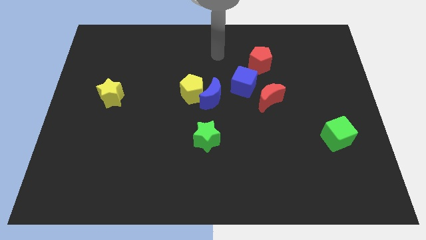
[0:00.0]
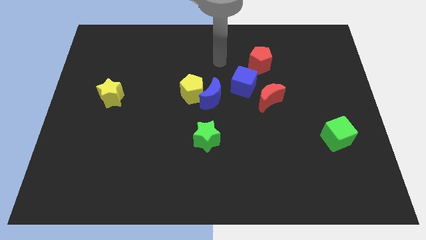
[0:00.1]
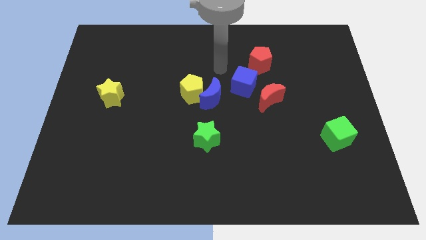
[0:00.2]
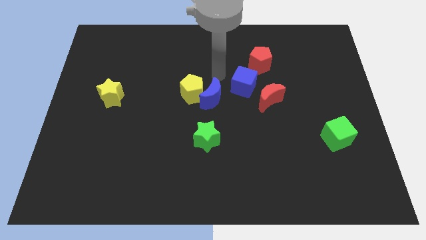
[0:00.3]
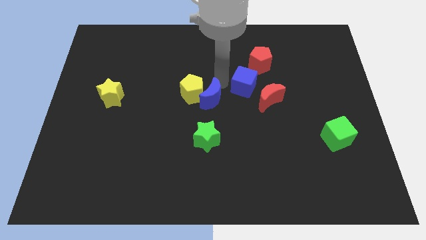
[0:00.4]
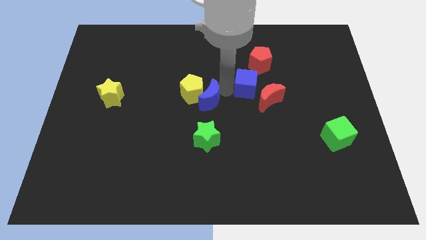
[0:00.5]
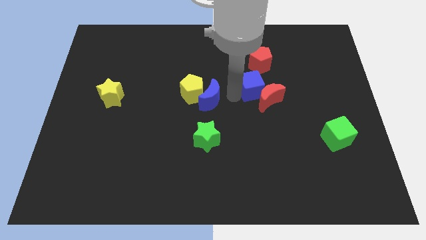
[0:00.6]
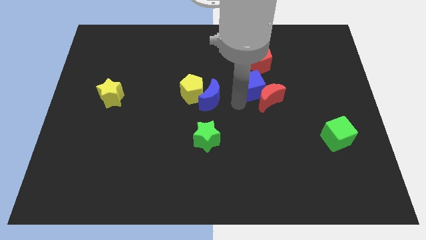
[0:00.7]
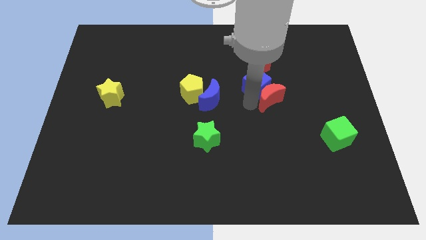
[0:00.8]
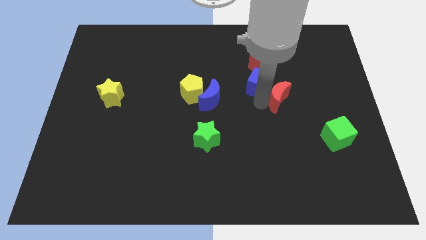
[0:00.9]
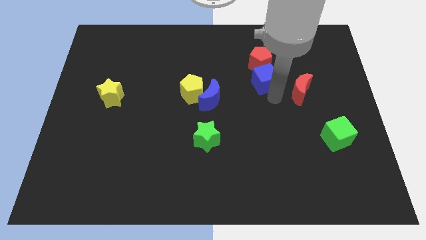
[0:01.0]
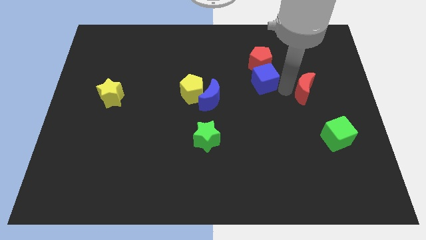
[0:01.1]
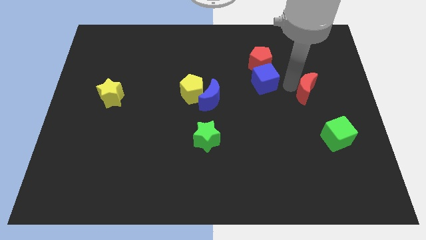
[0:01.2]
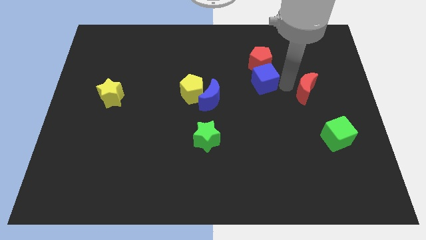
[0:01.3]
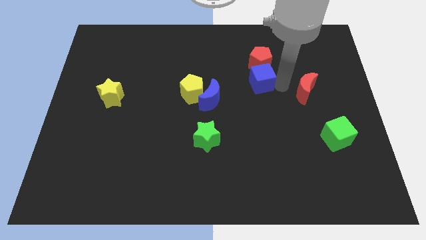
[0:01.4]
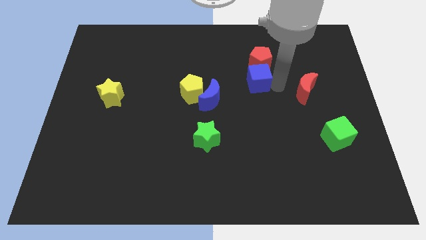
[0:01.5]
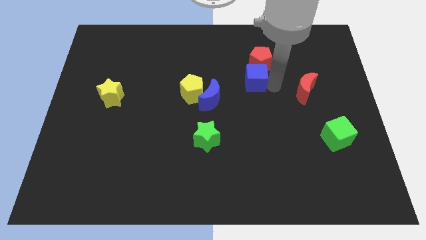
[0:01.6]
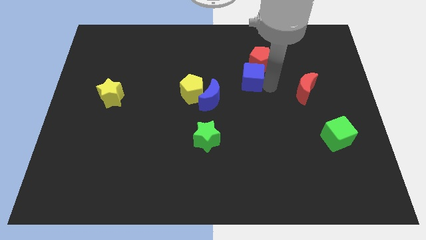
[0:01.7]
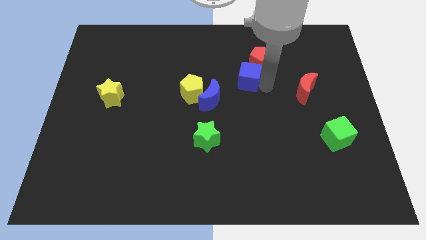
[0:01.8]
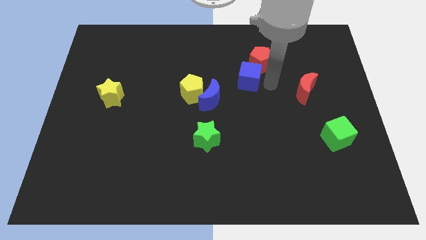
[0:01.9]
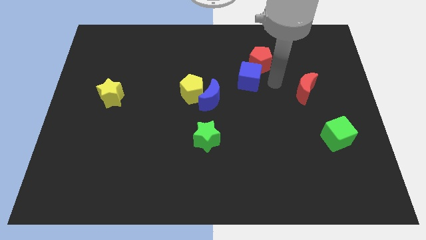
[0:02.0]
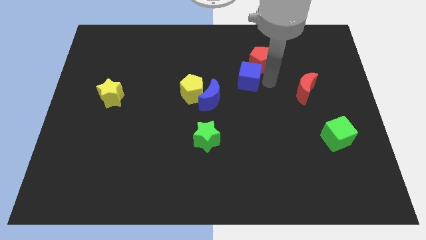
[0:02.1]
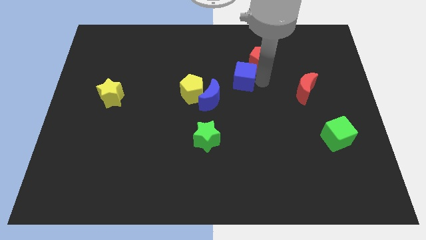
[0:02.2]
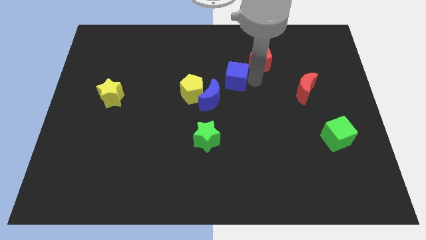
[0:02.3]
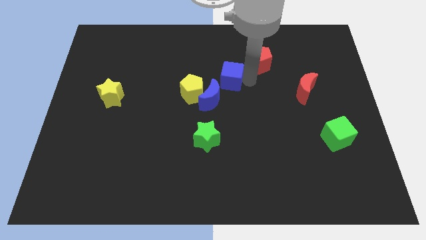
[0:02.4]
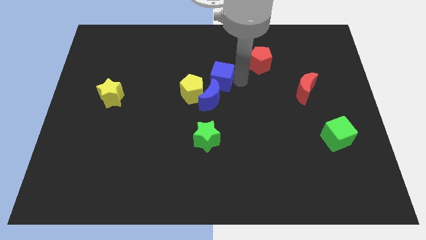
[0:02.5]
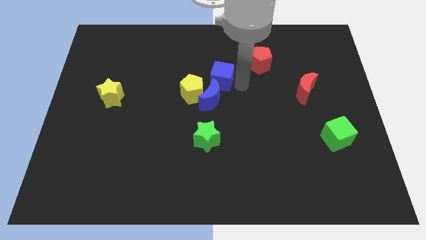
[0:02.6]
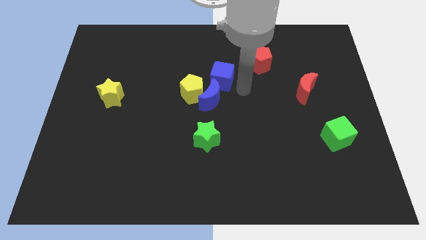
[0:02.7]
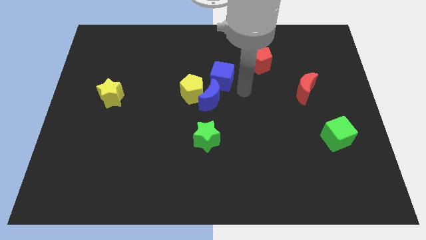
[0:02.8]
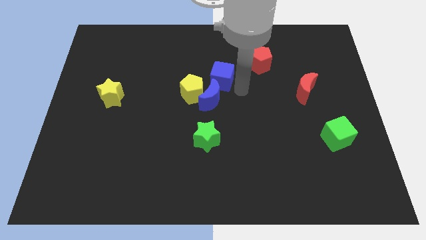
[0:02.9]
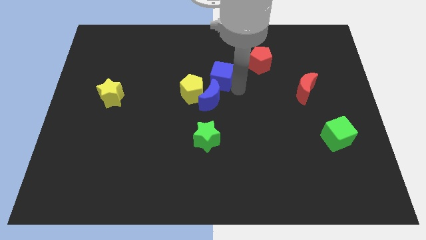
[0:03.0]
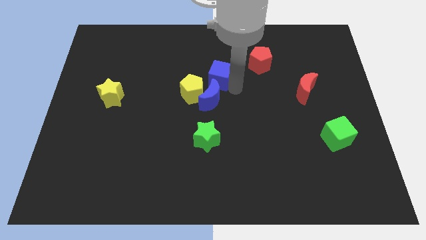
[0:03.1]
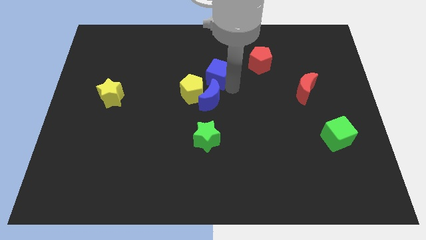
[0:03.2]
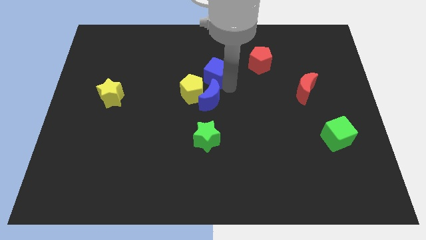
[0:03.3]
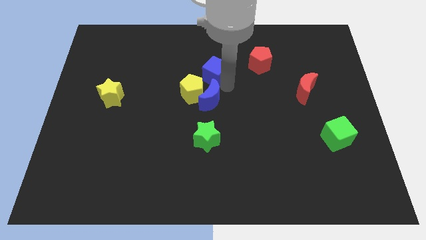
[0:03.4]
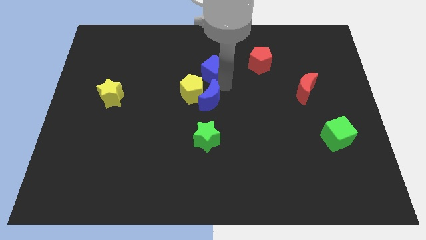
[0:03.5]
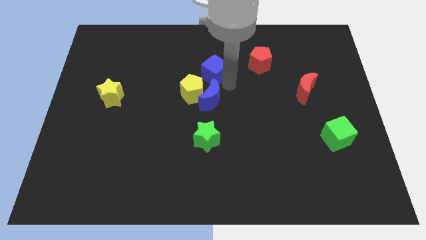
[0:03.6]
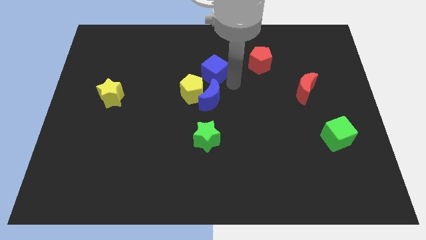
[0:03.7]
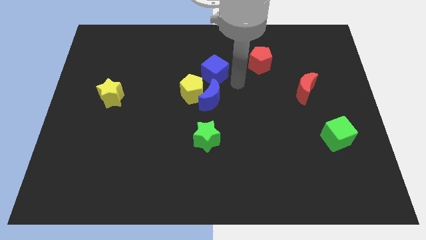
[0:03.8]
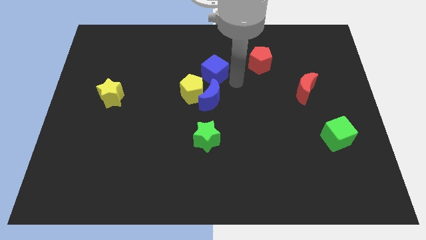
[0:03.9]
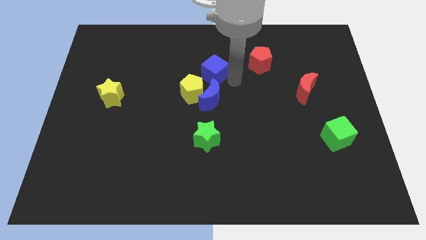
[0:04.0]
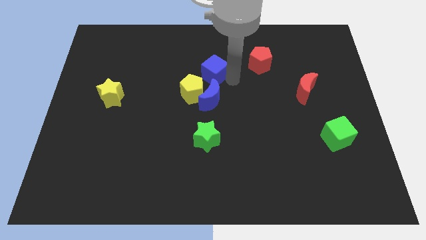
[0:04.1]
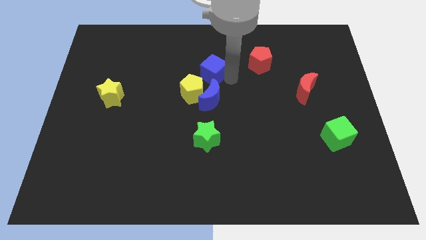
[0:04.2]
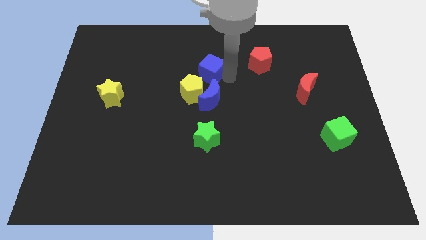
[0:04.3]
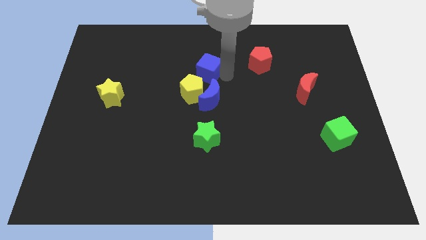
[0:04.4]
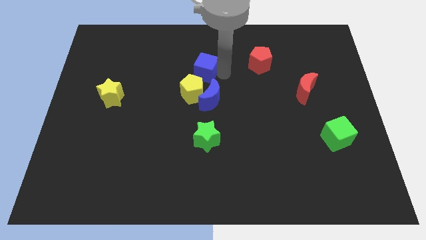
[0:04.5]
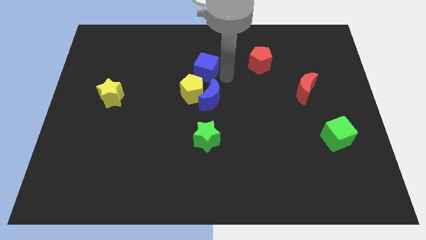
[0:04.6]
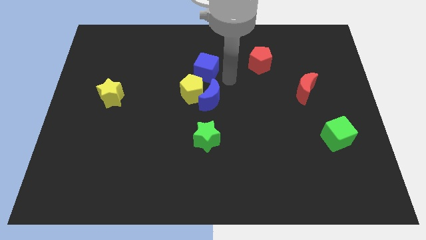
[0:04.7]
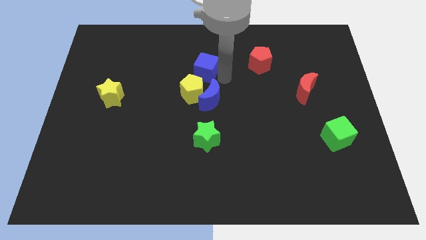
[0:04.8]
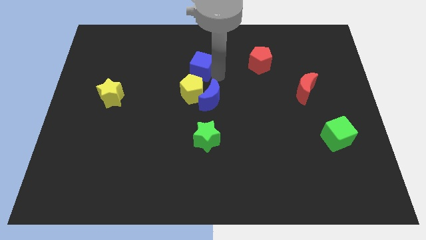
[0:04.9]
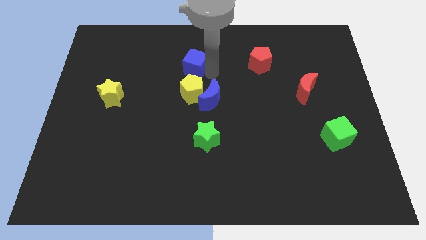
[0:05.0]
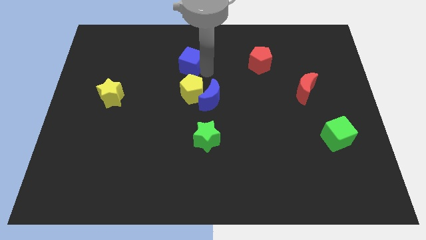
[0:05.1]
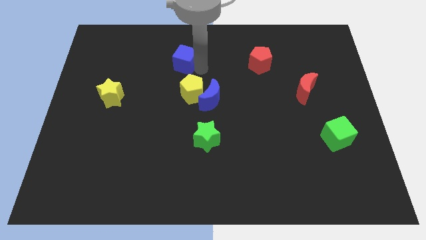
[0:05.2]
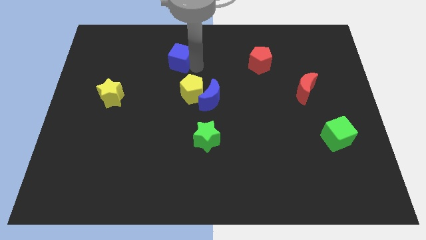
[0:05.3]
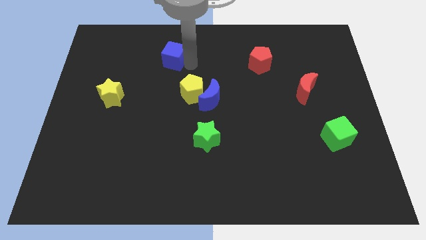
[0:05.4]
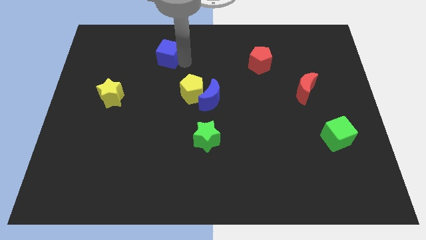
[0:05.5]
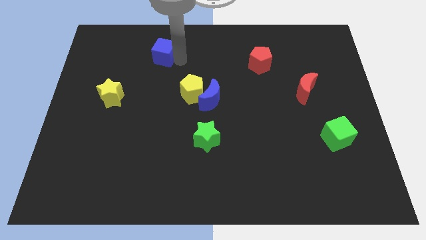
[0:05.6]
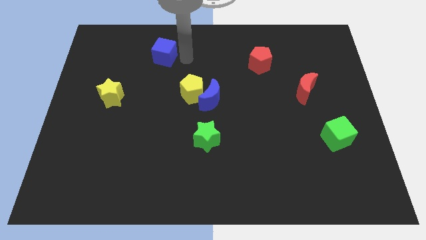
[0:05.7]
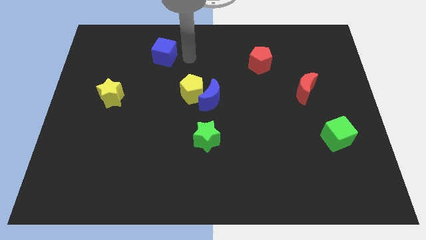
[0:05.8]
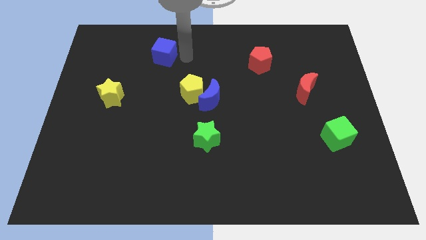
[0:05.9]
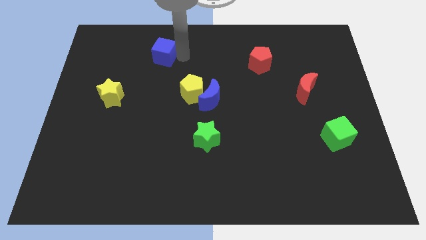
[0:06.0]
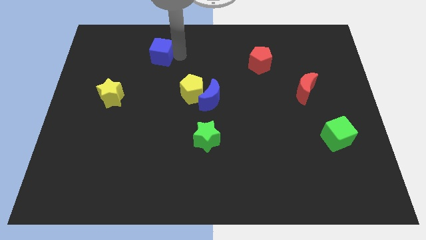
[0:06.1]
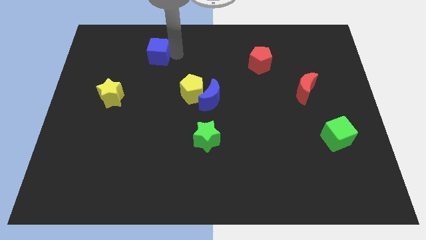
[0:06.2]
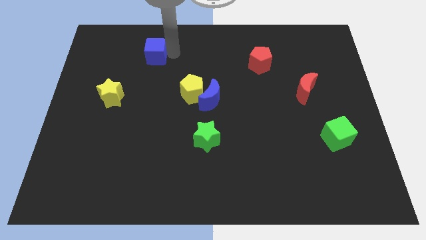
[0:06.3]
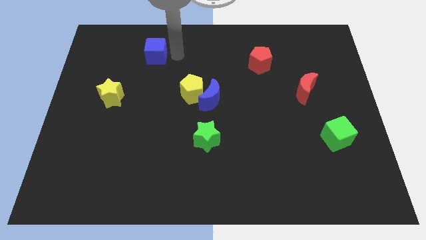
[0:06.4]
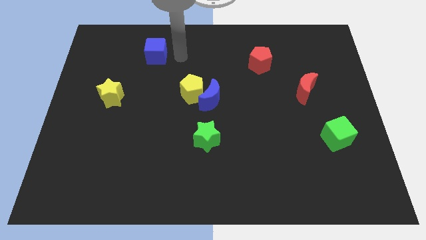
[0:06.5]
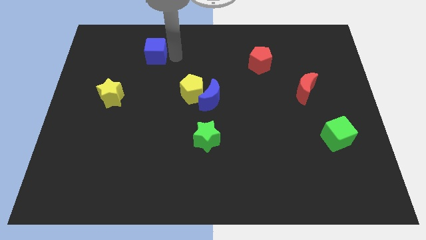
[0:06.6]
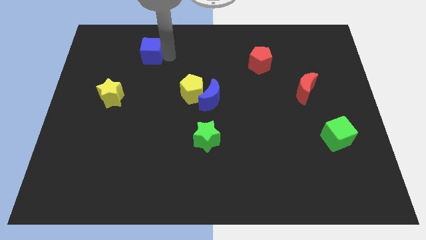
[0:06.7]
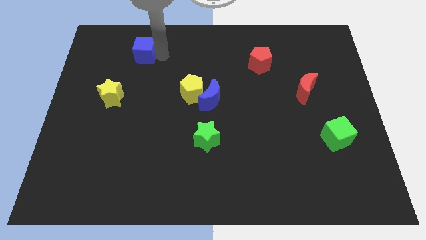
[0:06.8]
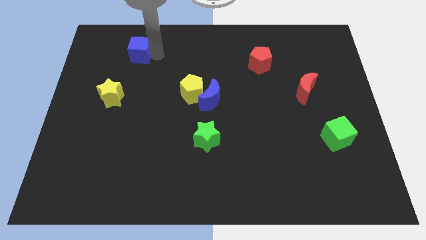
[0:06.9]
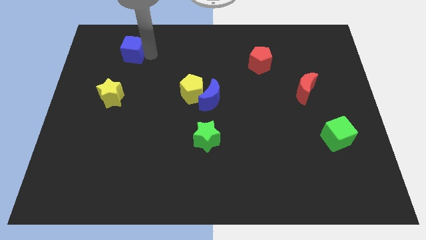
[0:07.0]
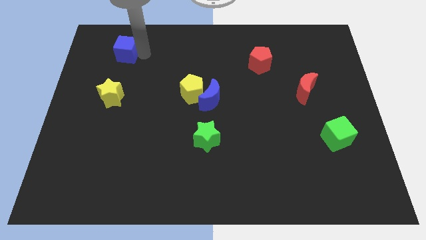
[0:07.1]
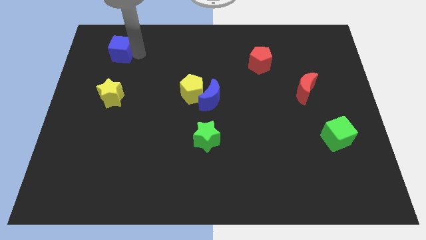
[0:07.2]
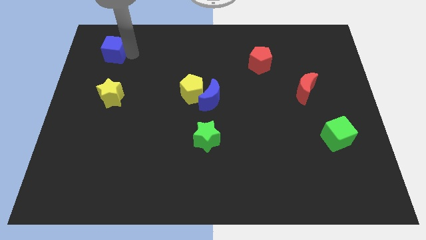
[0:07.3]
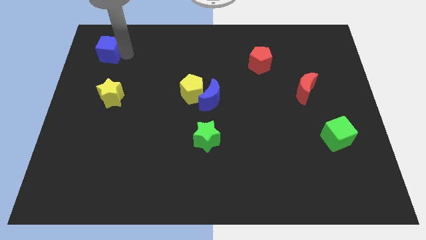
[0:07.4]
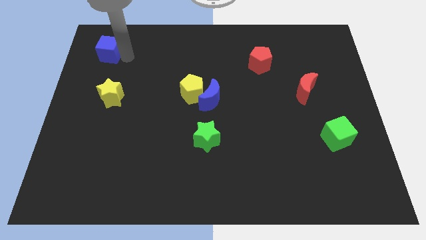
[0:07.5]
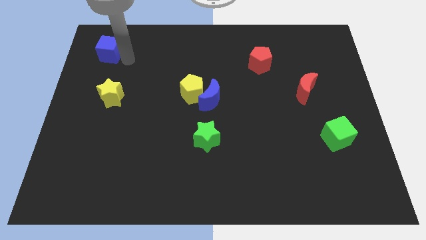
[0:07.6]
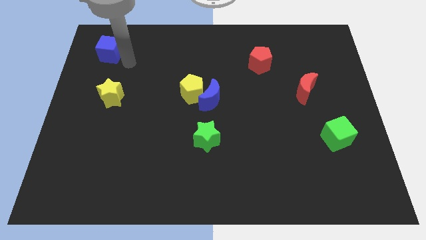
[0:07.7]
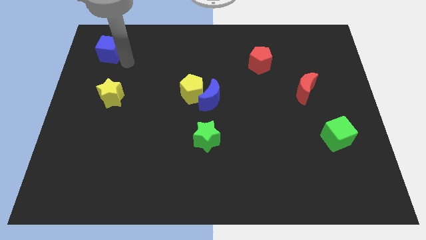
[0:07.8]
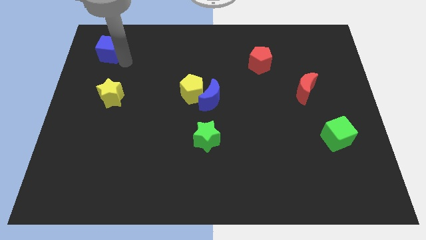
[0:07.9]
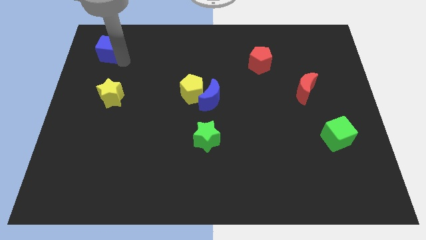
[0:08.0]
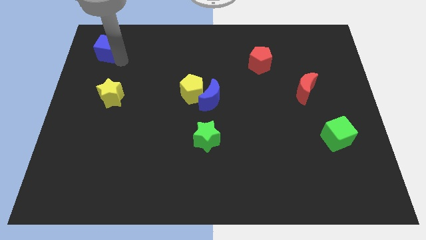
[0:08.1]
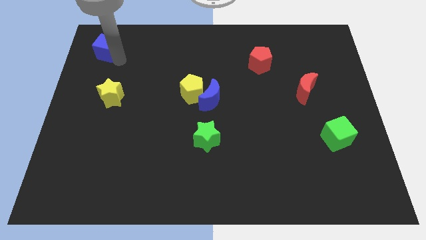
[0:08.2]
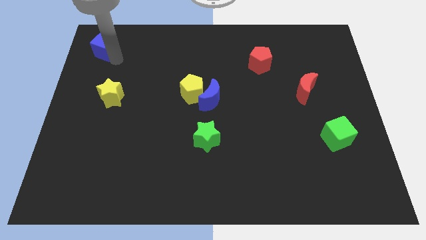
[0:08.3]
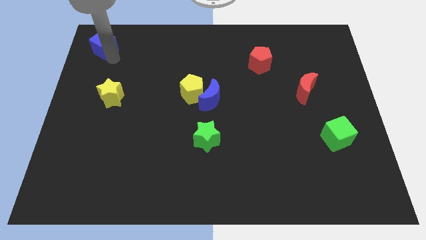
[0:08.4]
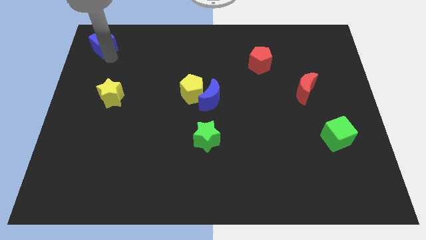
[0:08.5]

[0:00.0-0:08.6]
put the blue cube to the upper left corner
